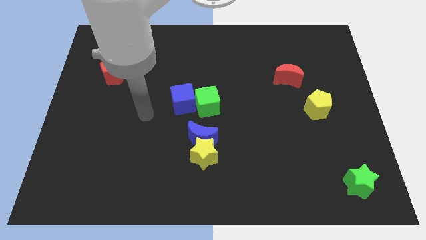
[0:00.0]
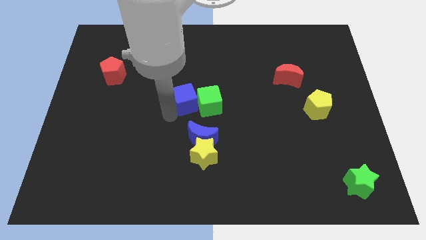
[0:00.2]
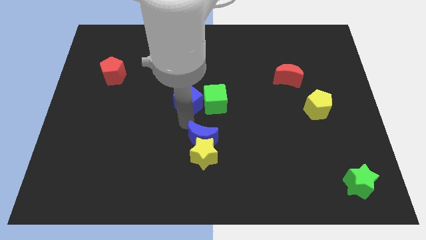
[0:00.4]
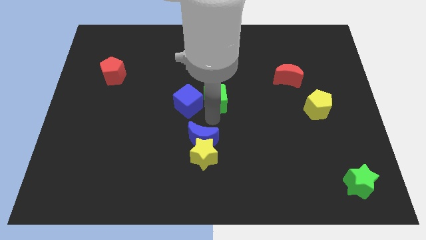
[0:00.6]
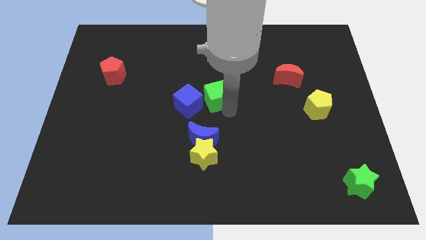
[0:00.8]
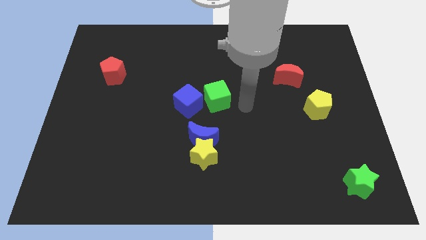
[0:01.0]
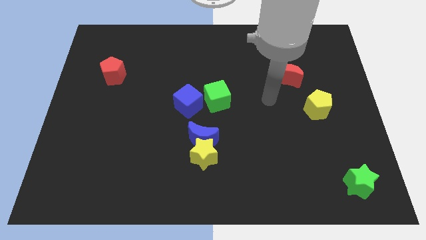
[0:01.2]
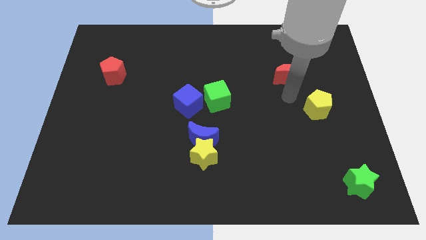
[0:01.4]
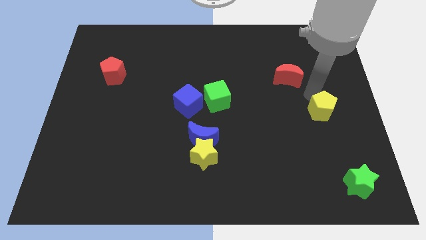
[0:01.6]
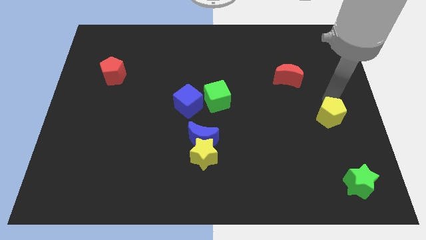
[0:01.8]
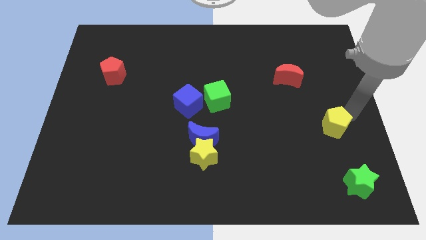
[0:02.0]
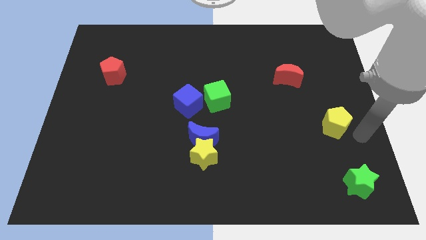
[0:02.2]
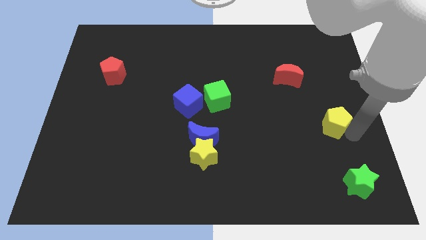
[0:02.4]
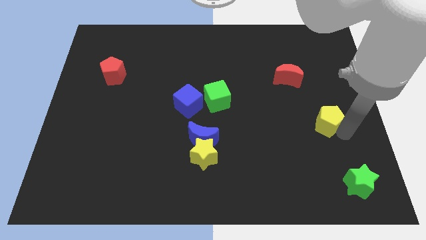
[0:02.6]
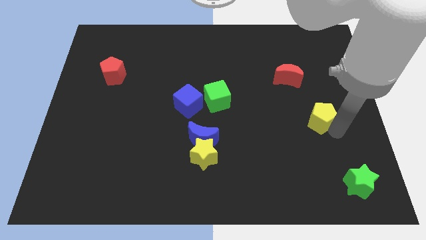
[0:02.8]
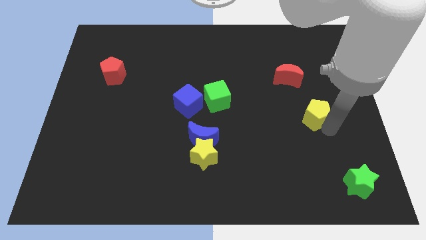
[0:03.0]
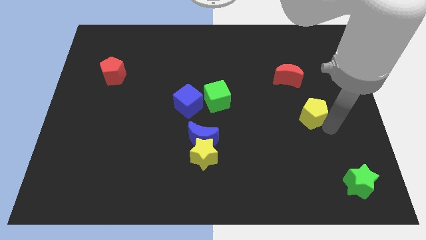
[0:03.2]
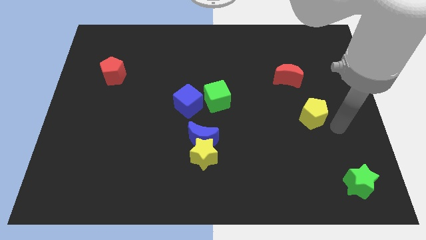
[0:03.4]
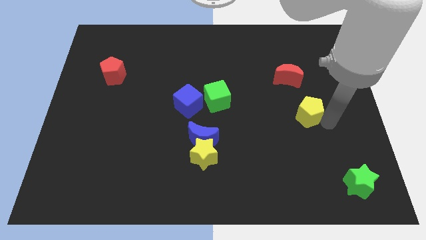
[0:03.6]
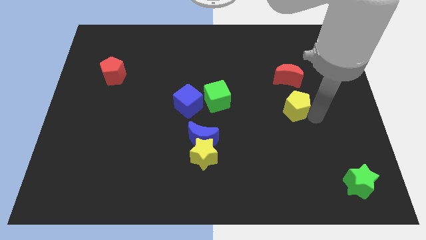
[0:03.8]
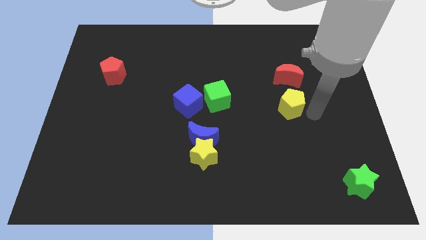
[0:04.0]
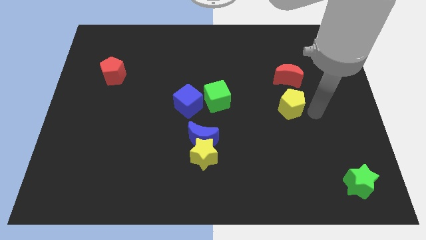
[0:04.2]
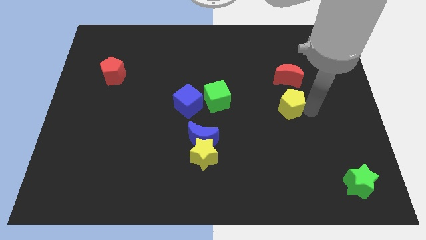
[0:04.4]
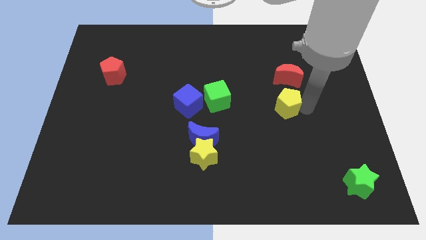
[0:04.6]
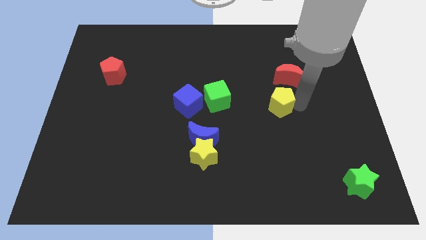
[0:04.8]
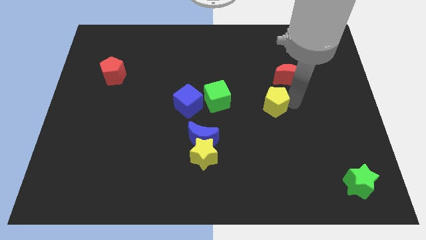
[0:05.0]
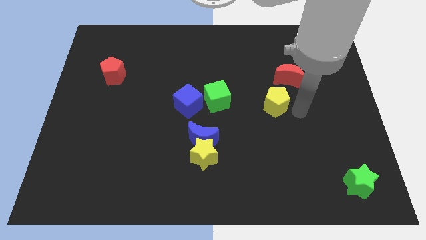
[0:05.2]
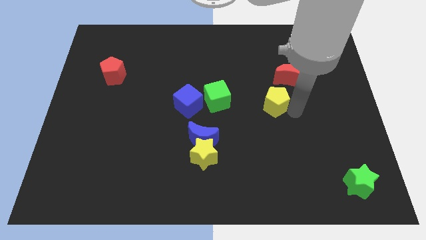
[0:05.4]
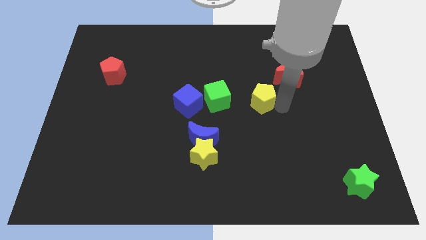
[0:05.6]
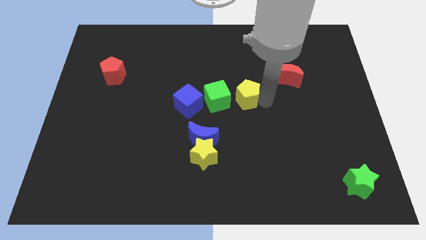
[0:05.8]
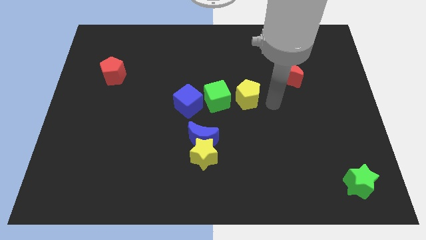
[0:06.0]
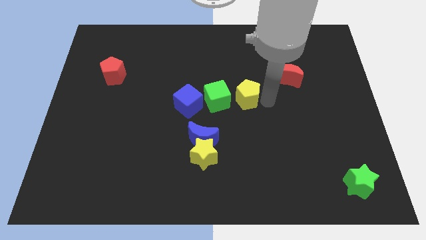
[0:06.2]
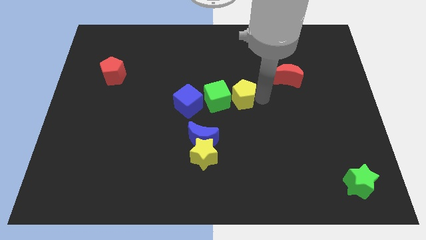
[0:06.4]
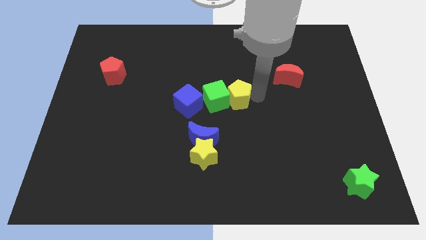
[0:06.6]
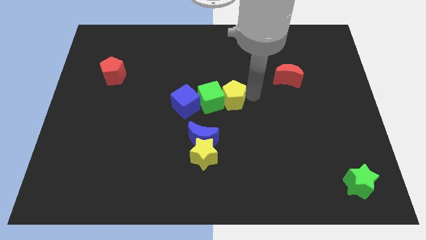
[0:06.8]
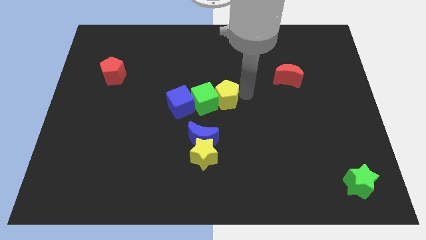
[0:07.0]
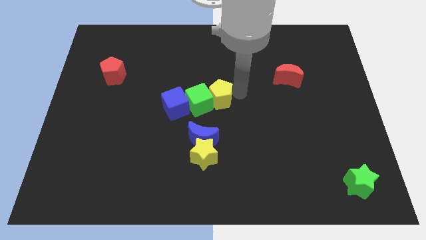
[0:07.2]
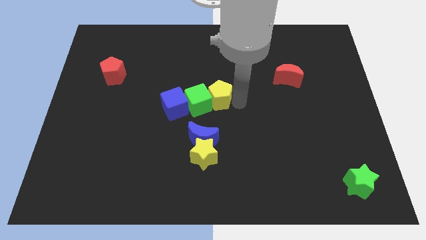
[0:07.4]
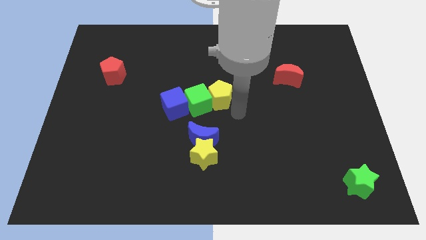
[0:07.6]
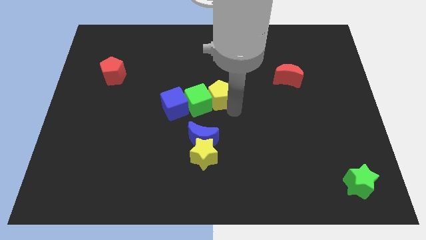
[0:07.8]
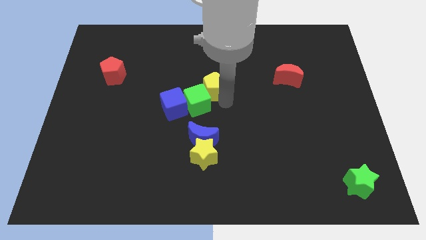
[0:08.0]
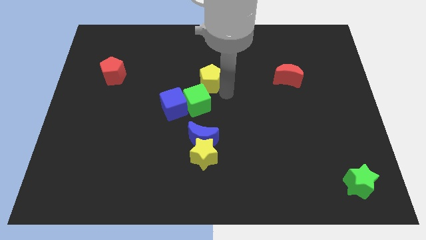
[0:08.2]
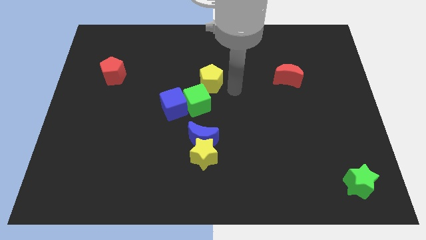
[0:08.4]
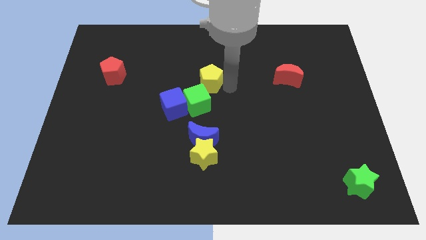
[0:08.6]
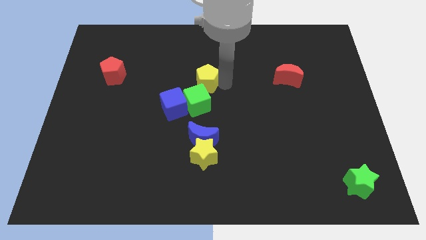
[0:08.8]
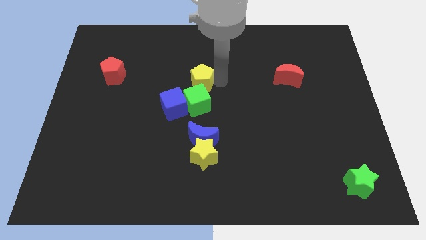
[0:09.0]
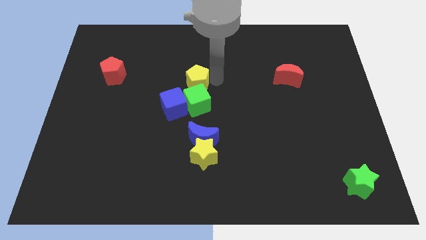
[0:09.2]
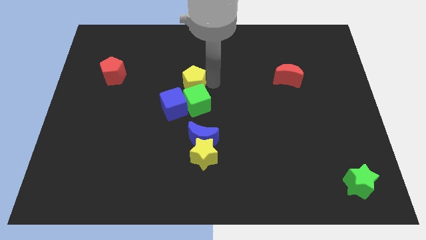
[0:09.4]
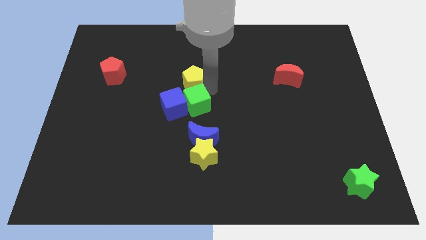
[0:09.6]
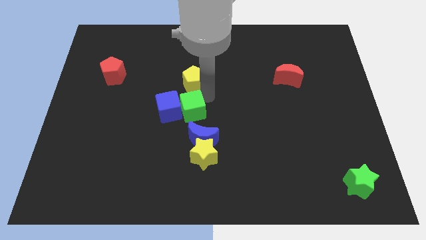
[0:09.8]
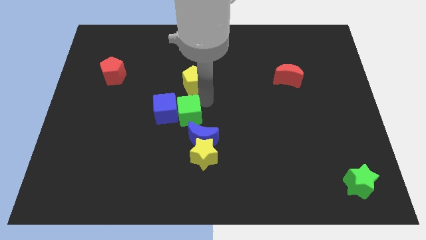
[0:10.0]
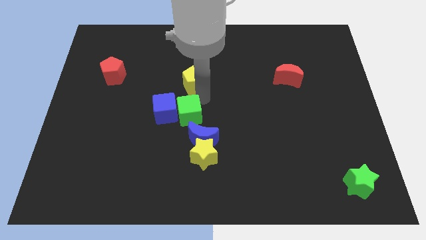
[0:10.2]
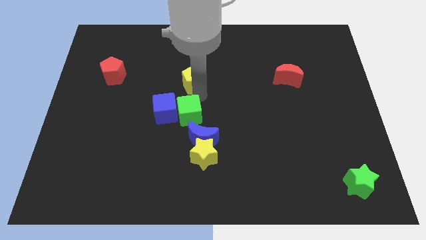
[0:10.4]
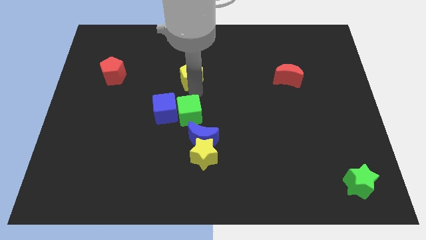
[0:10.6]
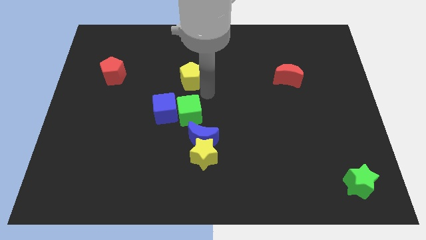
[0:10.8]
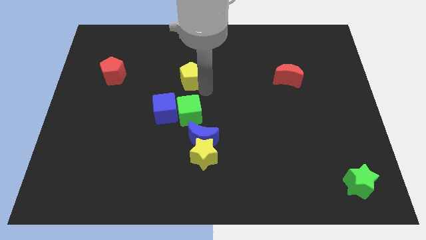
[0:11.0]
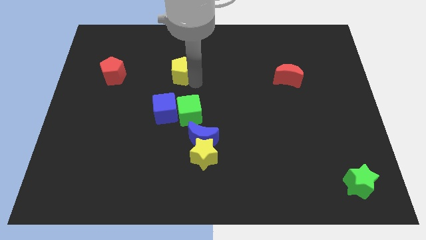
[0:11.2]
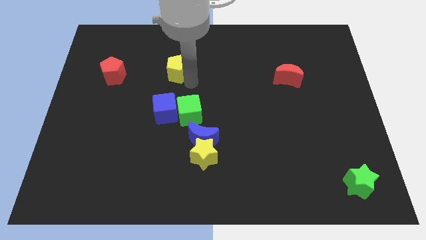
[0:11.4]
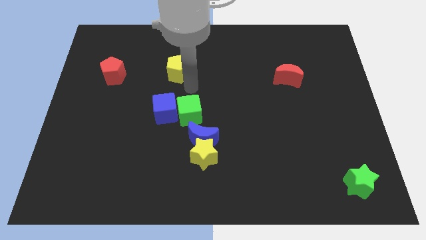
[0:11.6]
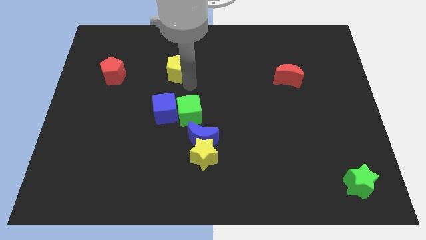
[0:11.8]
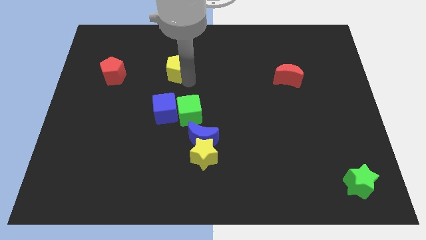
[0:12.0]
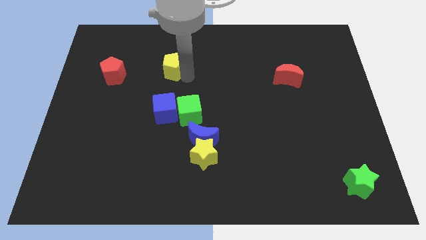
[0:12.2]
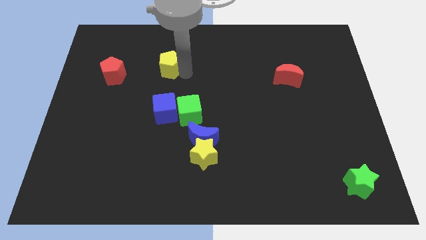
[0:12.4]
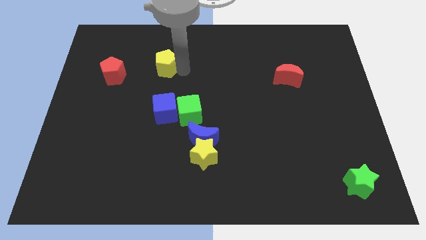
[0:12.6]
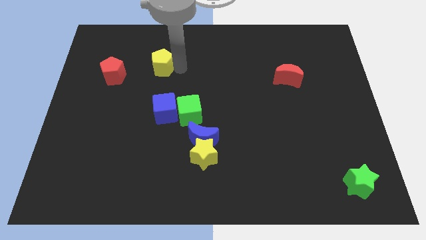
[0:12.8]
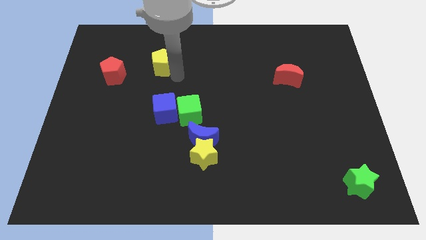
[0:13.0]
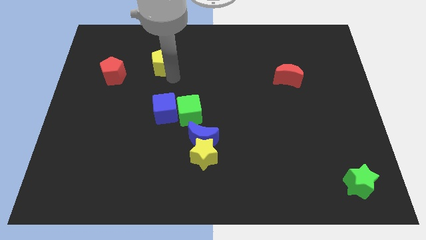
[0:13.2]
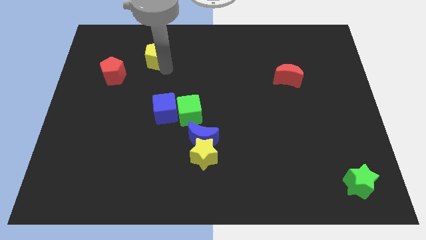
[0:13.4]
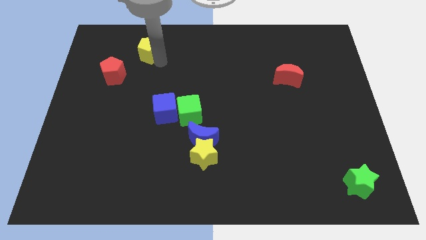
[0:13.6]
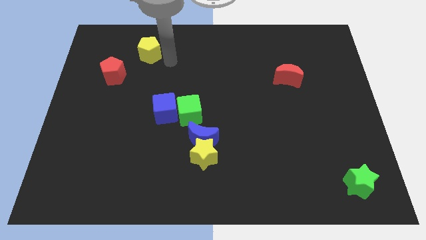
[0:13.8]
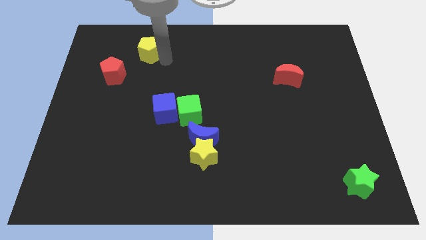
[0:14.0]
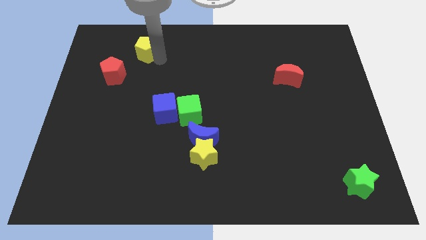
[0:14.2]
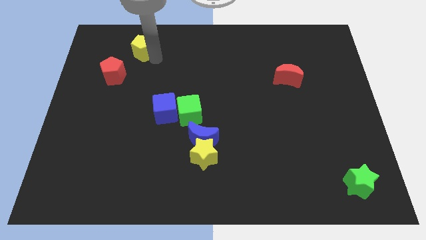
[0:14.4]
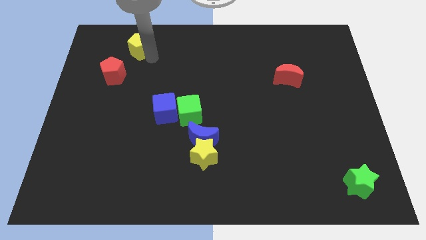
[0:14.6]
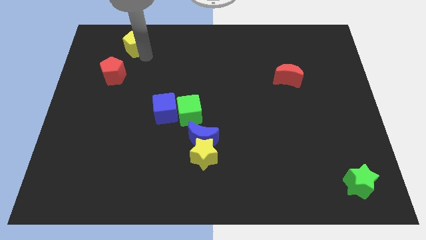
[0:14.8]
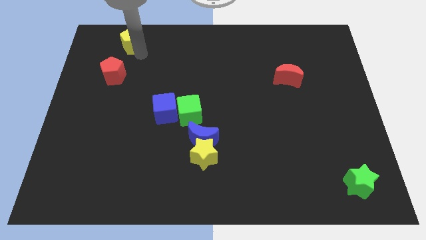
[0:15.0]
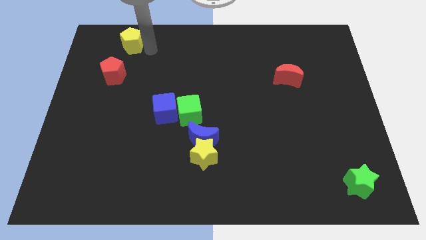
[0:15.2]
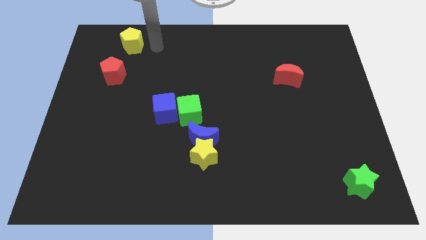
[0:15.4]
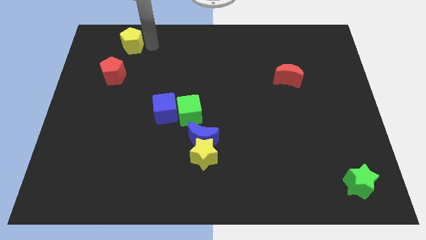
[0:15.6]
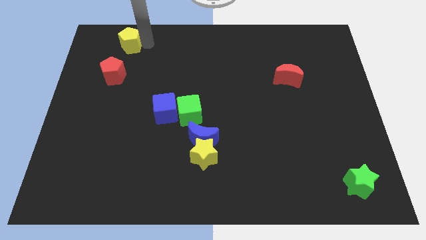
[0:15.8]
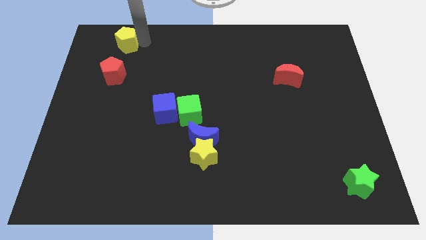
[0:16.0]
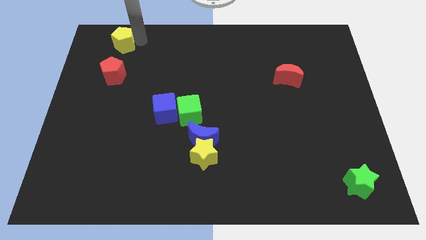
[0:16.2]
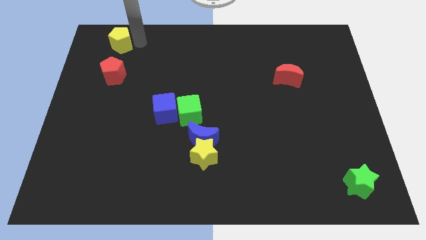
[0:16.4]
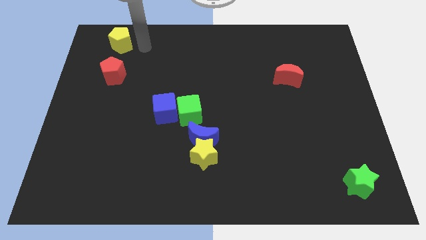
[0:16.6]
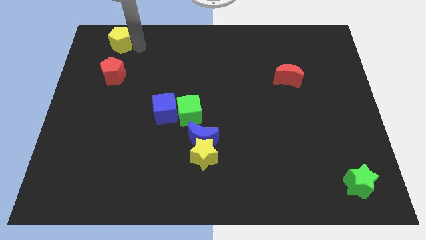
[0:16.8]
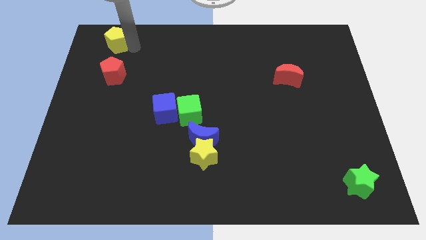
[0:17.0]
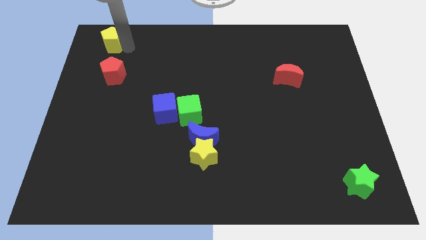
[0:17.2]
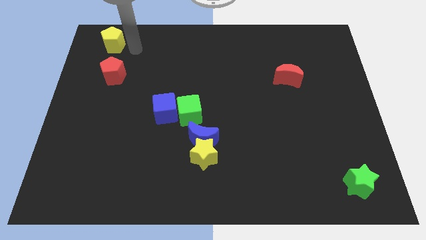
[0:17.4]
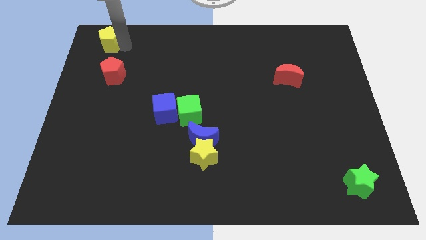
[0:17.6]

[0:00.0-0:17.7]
push the yellow pentagon to the top left
